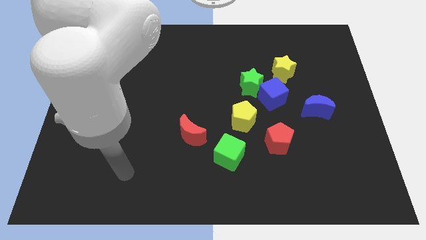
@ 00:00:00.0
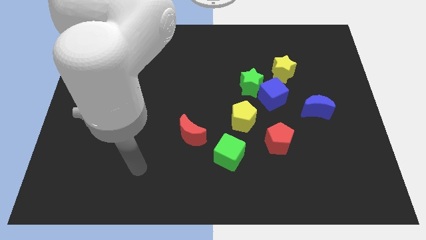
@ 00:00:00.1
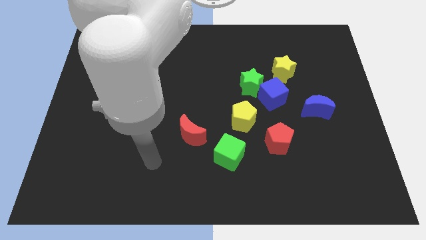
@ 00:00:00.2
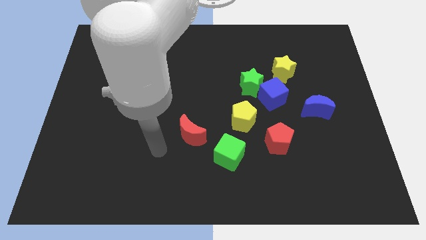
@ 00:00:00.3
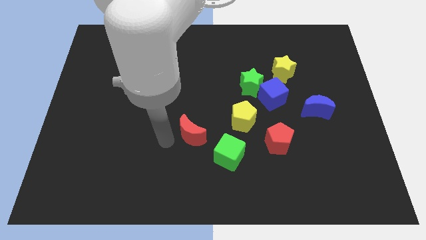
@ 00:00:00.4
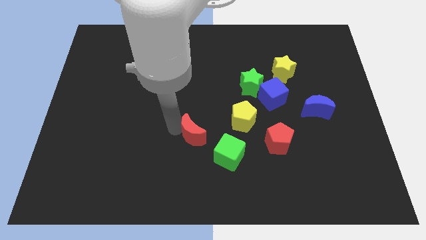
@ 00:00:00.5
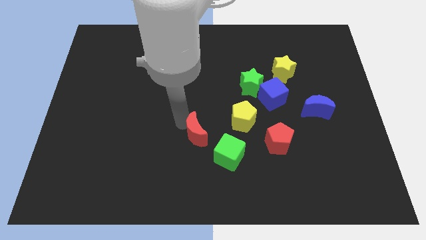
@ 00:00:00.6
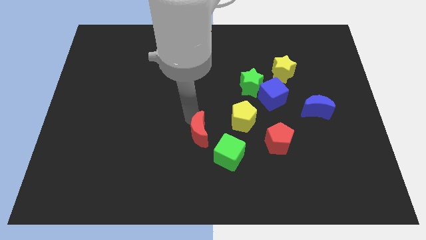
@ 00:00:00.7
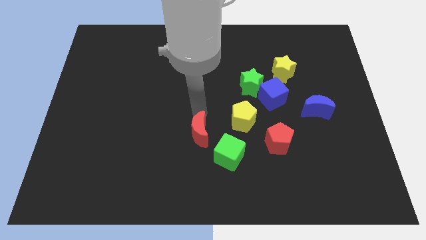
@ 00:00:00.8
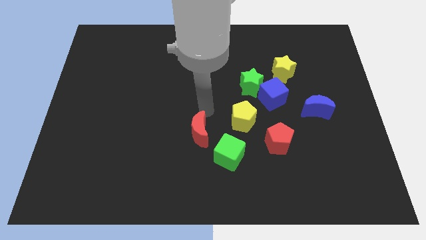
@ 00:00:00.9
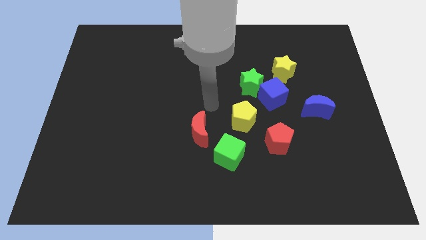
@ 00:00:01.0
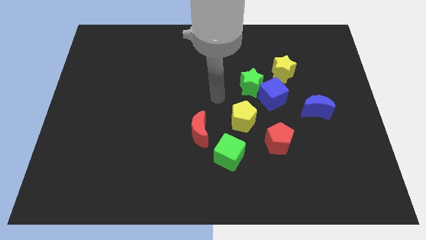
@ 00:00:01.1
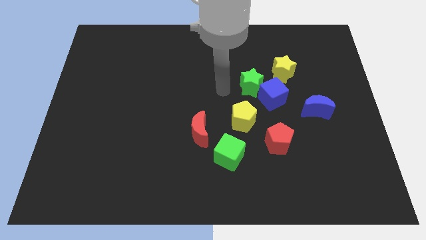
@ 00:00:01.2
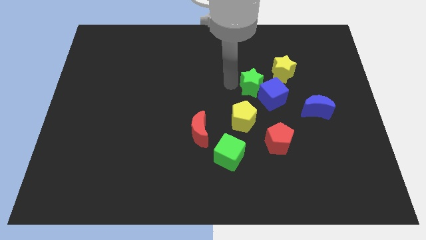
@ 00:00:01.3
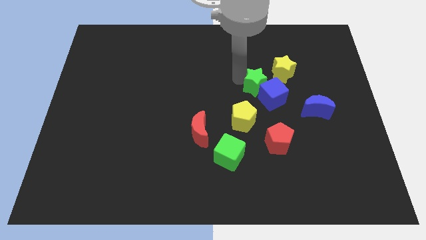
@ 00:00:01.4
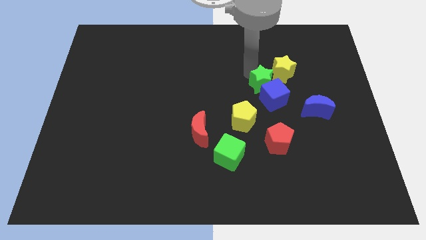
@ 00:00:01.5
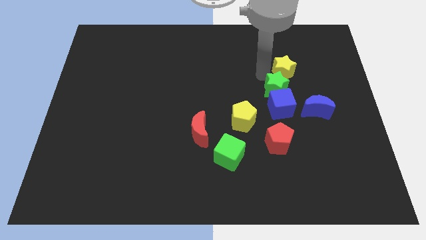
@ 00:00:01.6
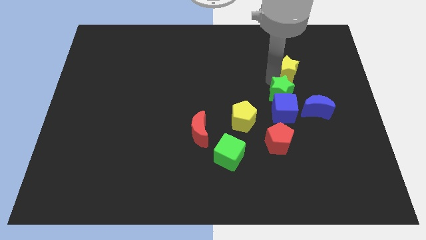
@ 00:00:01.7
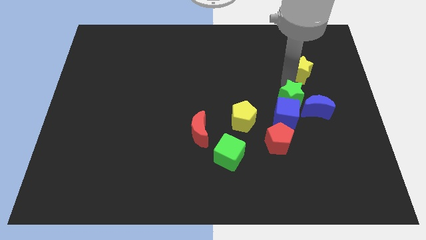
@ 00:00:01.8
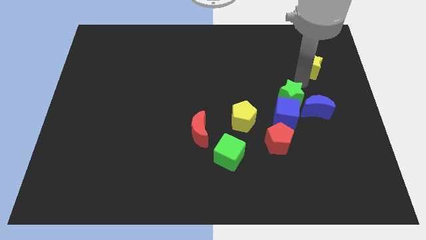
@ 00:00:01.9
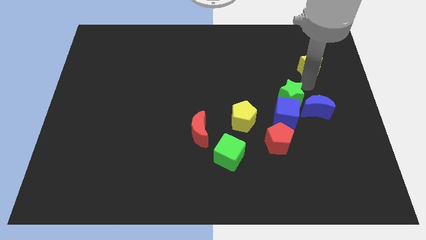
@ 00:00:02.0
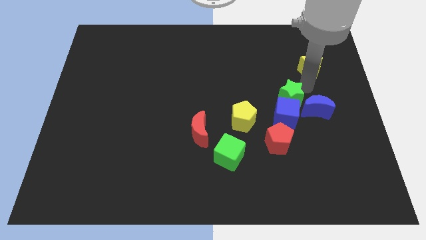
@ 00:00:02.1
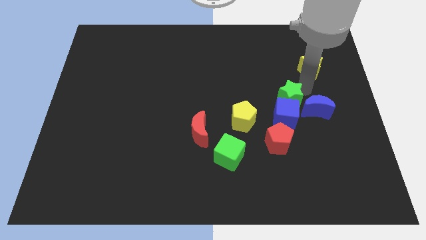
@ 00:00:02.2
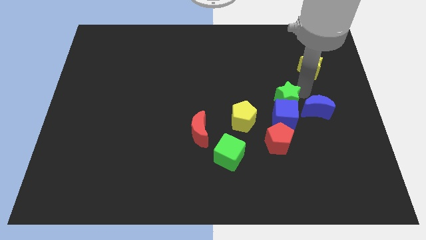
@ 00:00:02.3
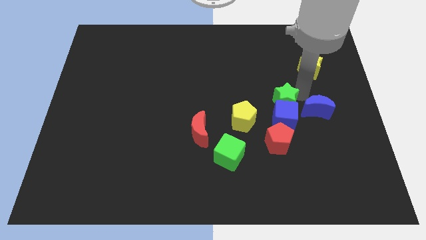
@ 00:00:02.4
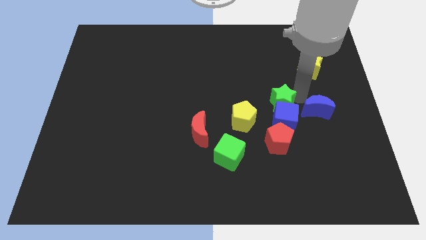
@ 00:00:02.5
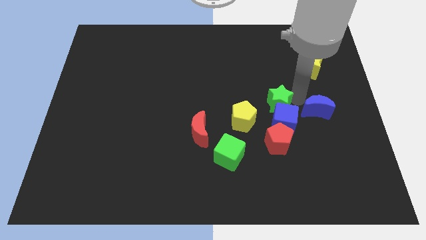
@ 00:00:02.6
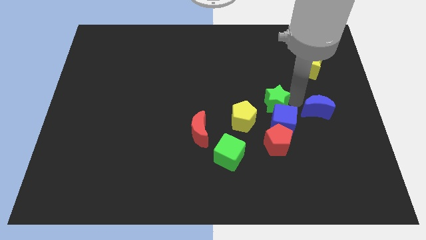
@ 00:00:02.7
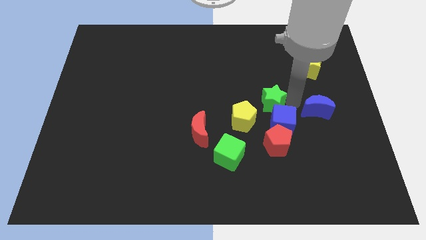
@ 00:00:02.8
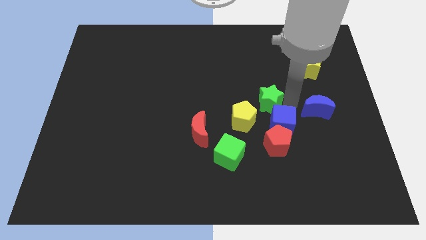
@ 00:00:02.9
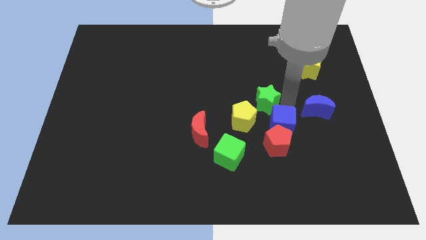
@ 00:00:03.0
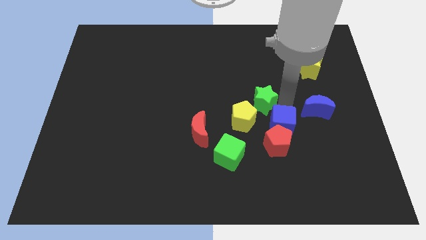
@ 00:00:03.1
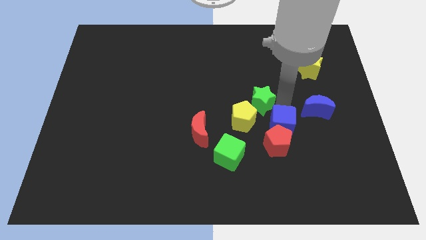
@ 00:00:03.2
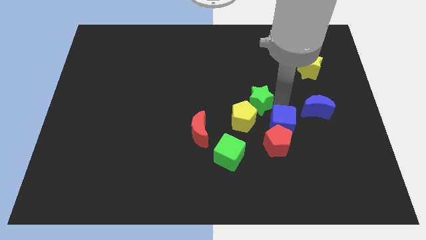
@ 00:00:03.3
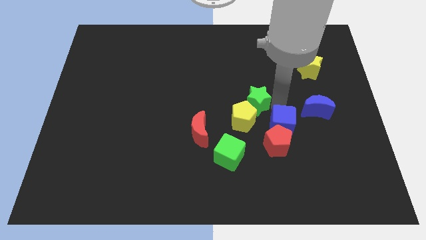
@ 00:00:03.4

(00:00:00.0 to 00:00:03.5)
move the green star away from the blue cube and yellow star

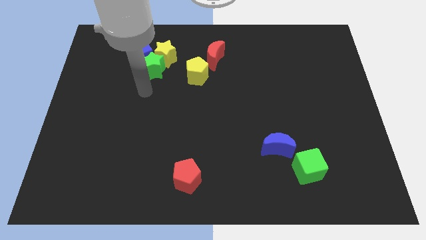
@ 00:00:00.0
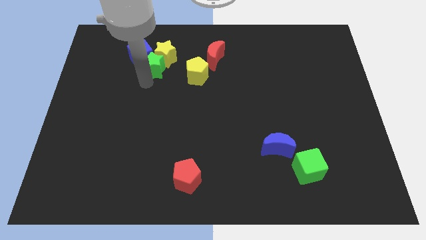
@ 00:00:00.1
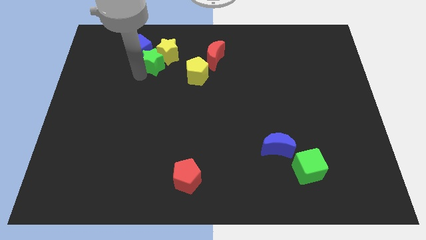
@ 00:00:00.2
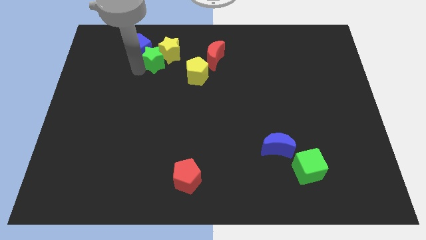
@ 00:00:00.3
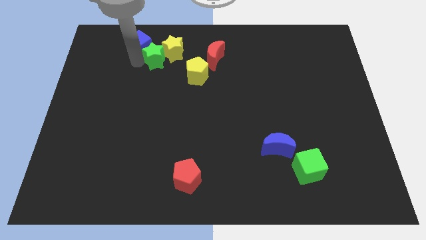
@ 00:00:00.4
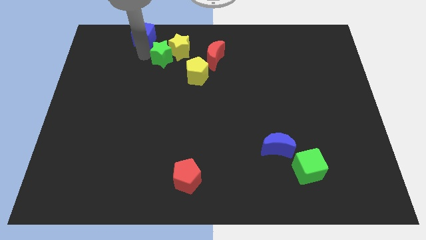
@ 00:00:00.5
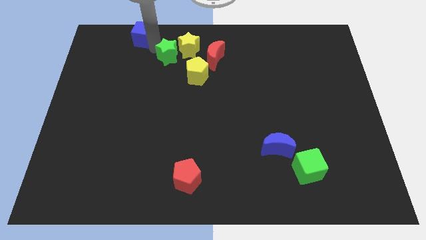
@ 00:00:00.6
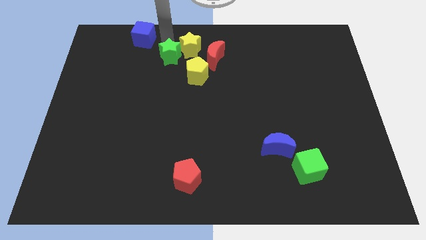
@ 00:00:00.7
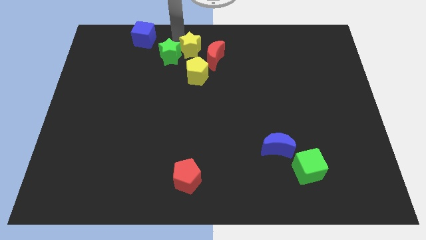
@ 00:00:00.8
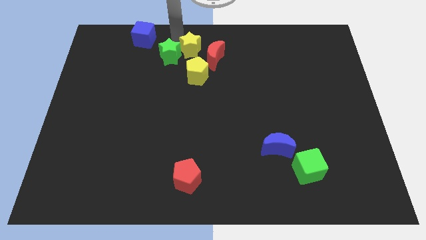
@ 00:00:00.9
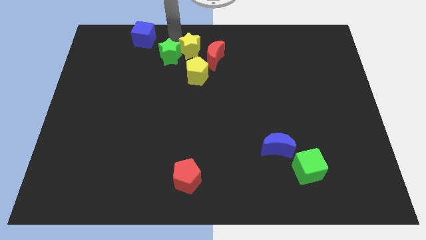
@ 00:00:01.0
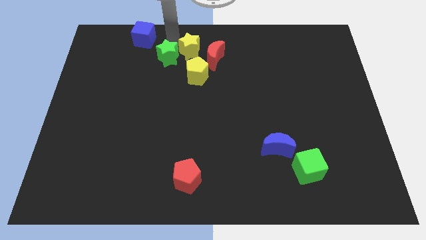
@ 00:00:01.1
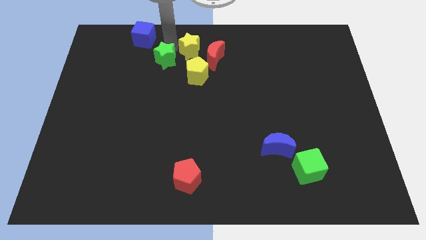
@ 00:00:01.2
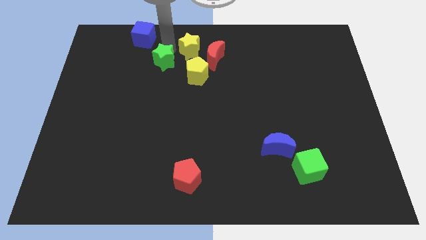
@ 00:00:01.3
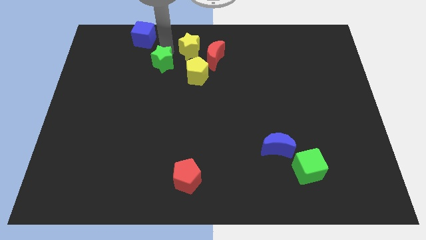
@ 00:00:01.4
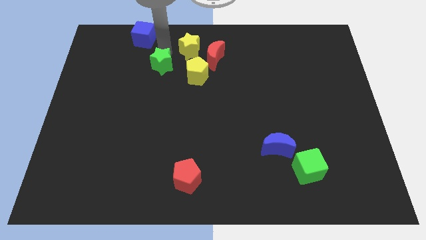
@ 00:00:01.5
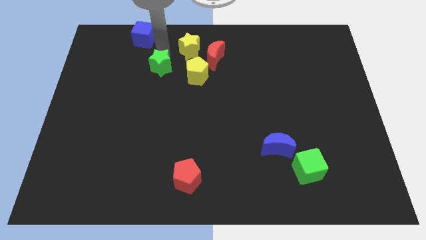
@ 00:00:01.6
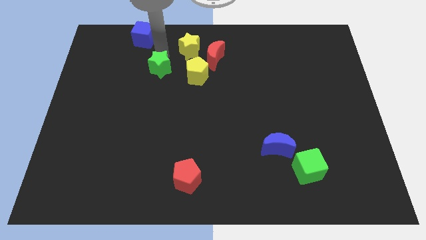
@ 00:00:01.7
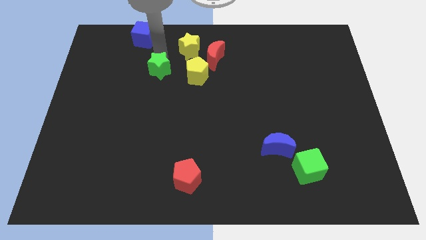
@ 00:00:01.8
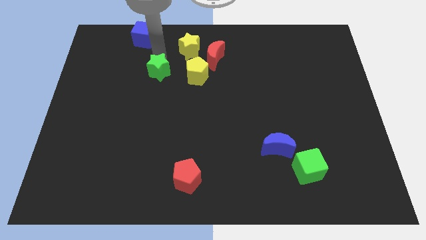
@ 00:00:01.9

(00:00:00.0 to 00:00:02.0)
move the green star away from the yellow star and blue cube

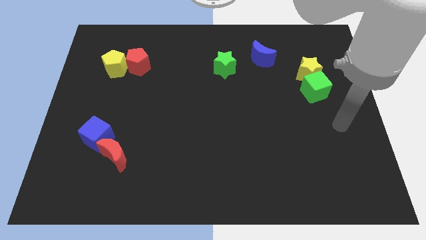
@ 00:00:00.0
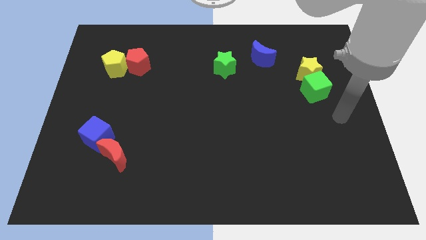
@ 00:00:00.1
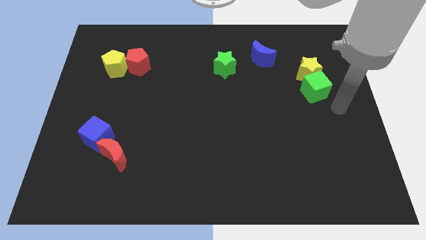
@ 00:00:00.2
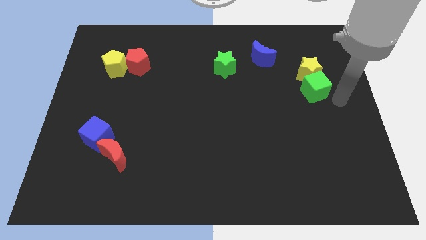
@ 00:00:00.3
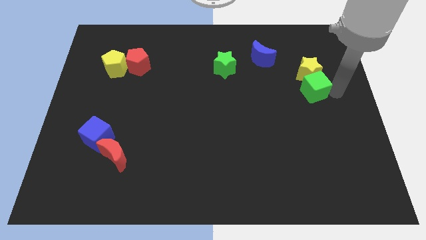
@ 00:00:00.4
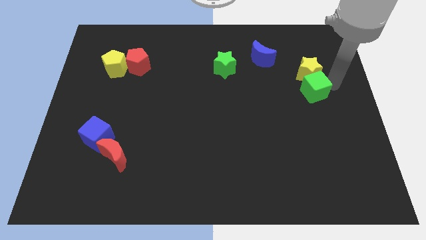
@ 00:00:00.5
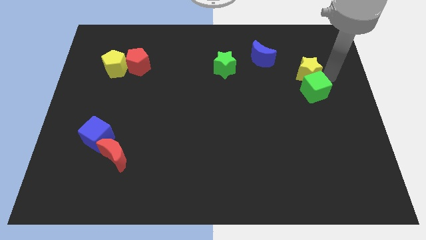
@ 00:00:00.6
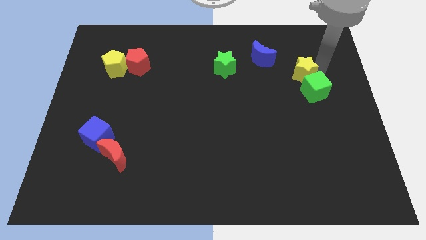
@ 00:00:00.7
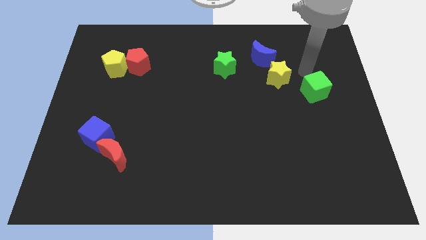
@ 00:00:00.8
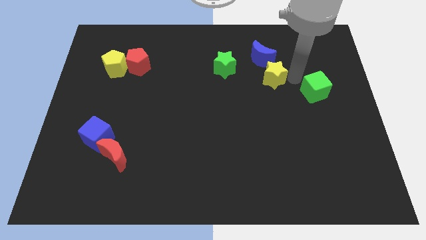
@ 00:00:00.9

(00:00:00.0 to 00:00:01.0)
separate the green cube from the yellow star

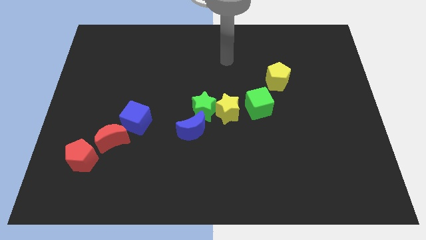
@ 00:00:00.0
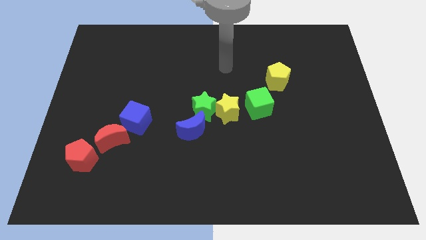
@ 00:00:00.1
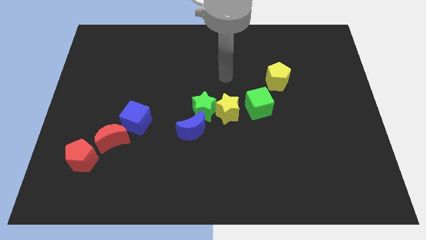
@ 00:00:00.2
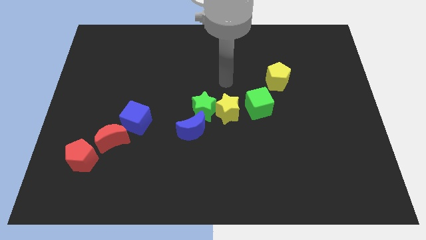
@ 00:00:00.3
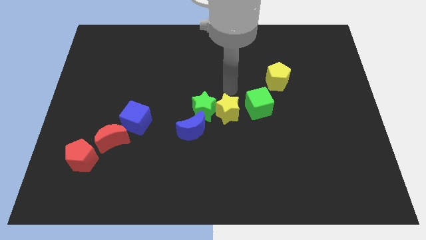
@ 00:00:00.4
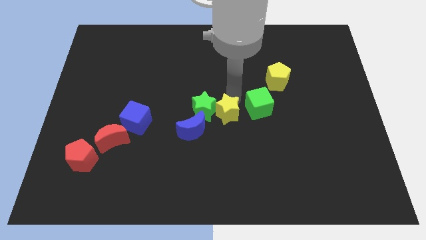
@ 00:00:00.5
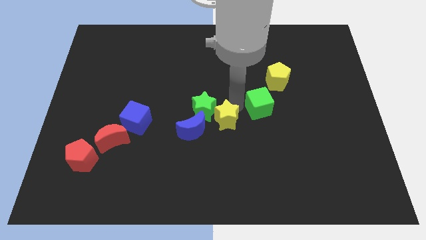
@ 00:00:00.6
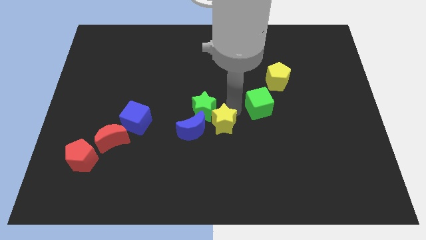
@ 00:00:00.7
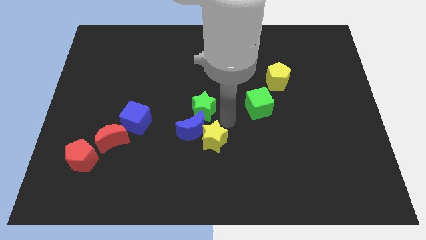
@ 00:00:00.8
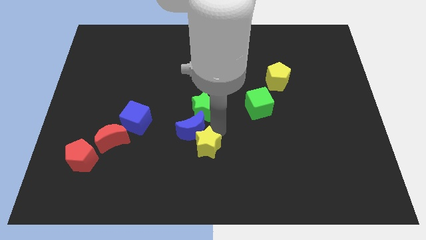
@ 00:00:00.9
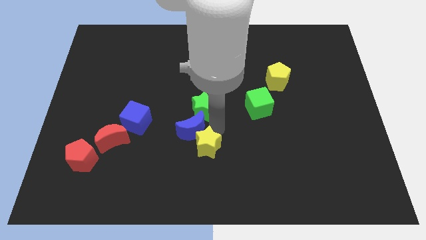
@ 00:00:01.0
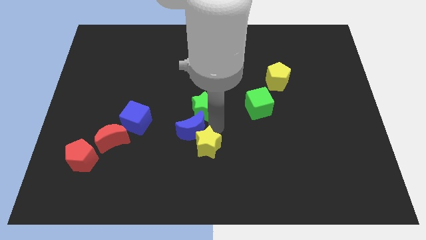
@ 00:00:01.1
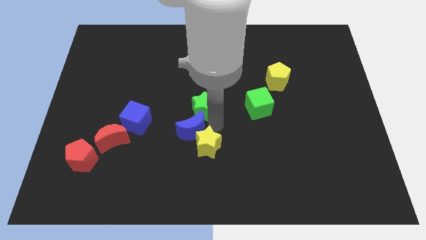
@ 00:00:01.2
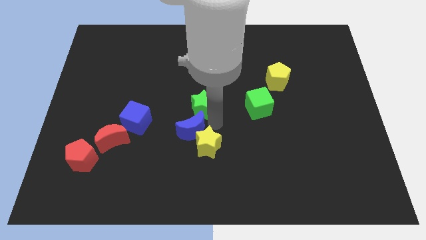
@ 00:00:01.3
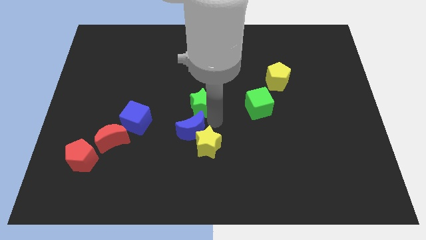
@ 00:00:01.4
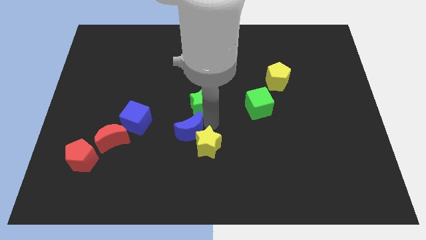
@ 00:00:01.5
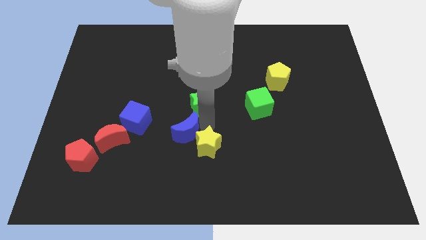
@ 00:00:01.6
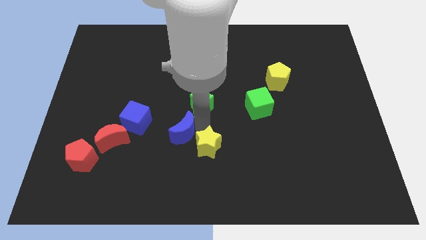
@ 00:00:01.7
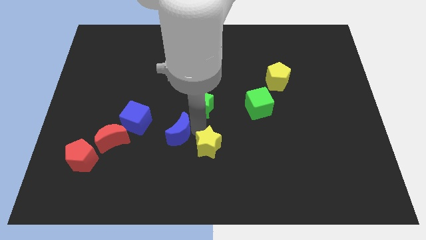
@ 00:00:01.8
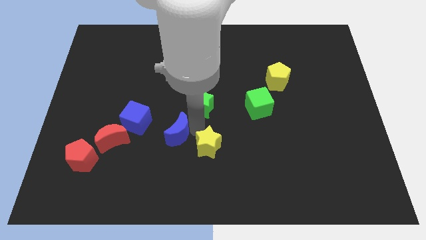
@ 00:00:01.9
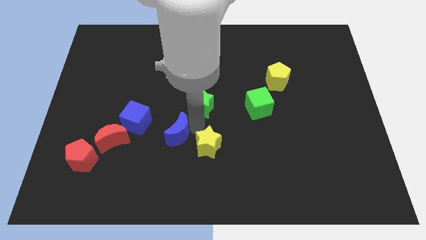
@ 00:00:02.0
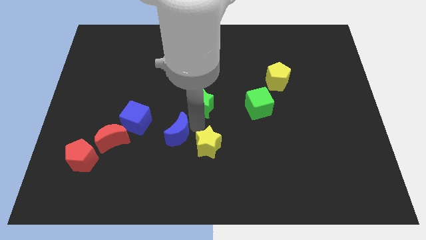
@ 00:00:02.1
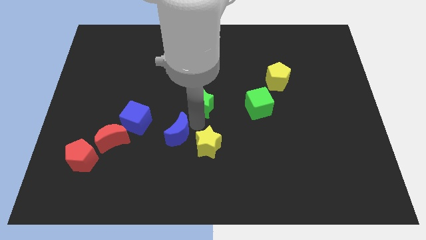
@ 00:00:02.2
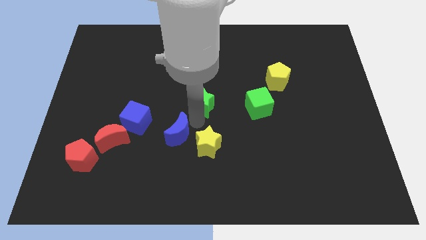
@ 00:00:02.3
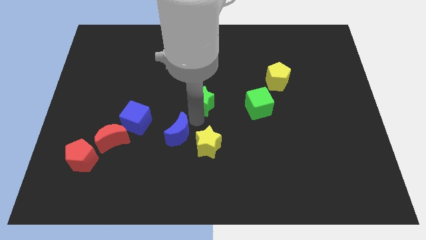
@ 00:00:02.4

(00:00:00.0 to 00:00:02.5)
move the green star away from the yellow star and blue moon

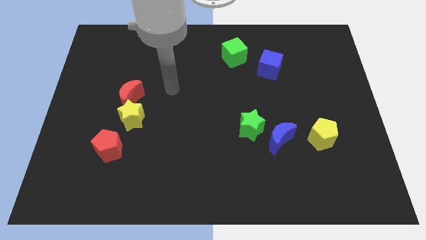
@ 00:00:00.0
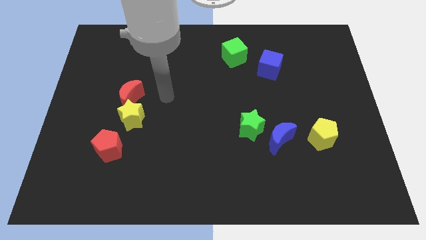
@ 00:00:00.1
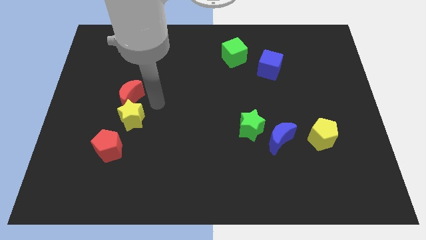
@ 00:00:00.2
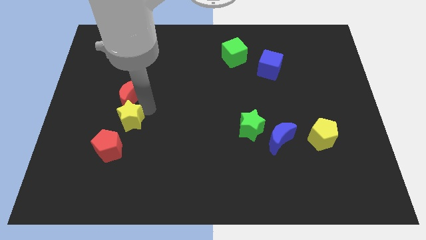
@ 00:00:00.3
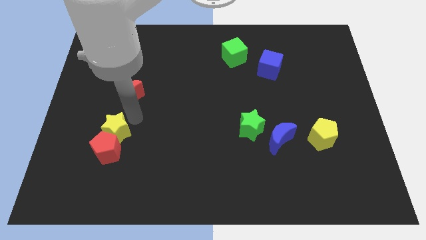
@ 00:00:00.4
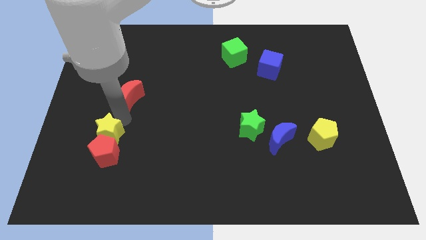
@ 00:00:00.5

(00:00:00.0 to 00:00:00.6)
pull the red moon apart from the yellow star
